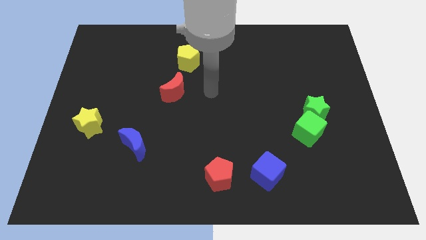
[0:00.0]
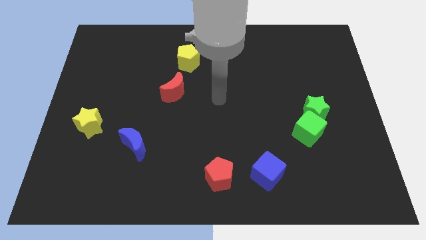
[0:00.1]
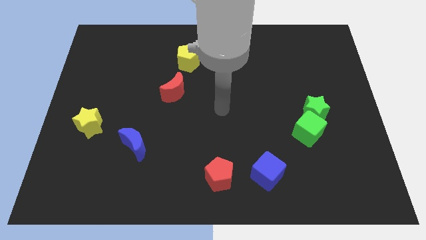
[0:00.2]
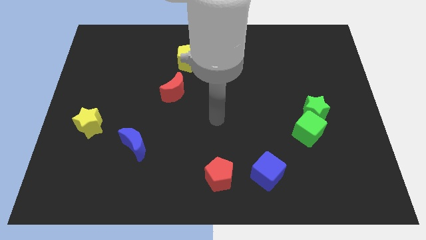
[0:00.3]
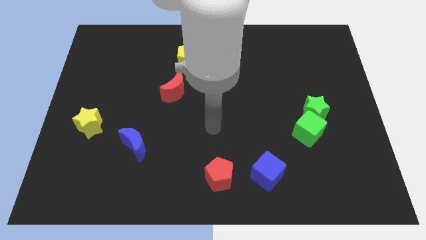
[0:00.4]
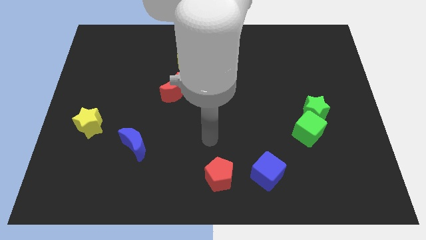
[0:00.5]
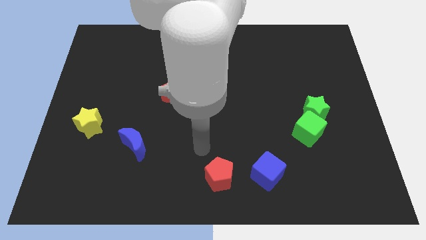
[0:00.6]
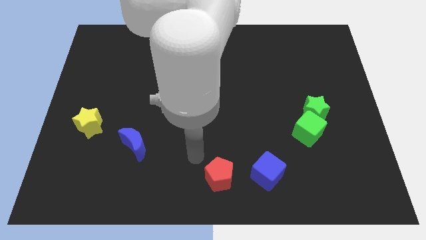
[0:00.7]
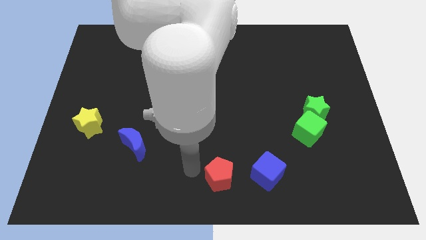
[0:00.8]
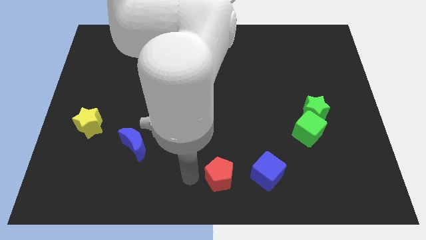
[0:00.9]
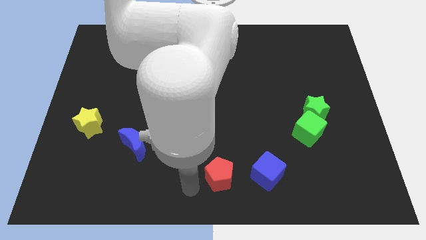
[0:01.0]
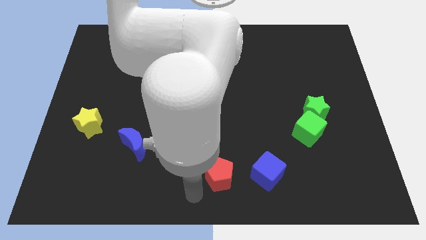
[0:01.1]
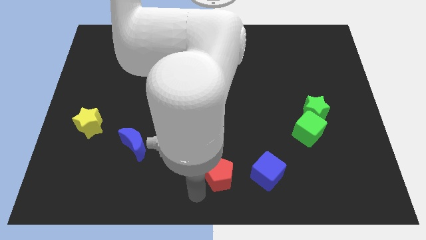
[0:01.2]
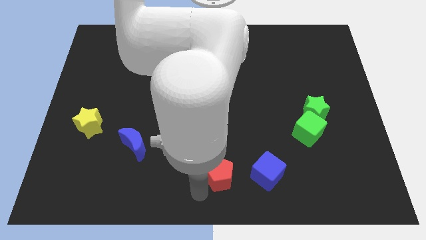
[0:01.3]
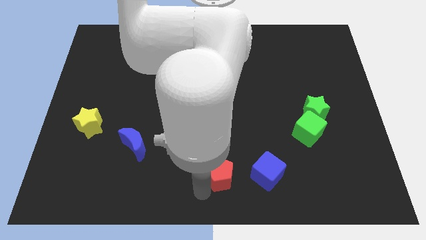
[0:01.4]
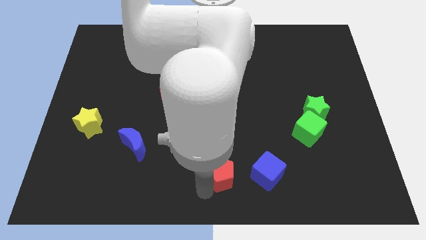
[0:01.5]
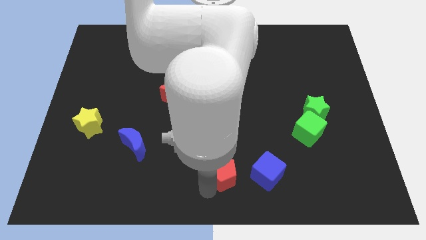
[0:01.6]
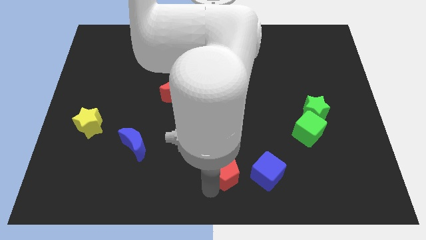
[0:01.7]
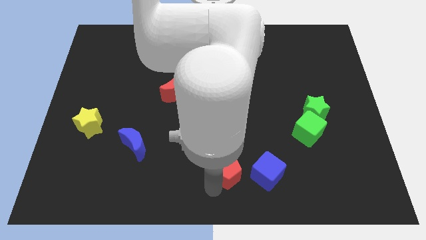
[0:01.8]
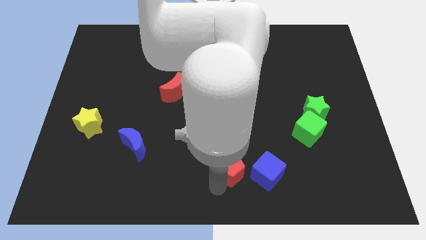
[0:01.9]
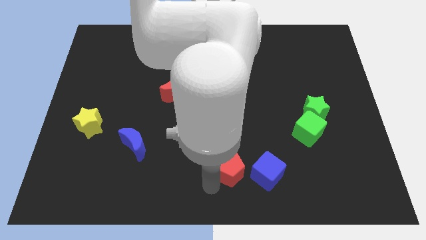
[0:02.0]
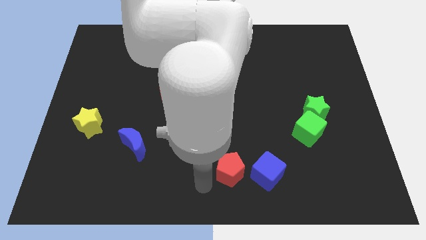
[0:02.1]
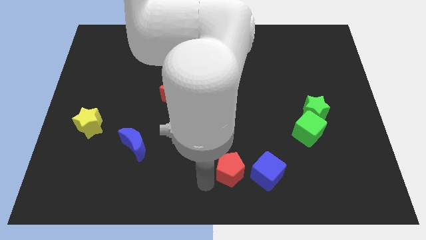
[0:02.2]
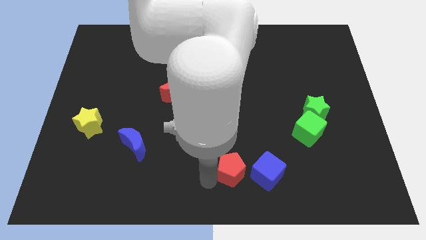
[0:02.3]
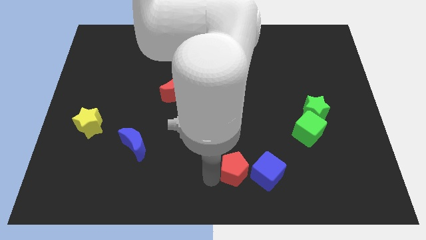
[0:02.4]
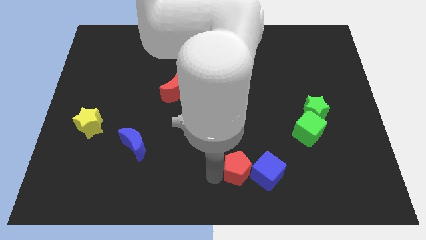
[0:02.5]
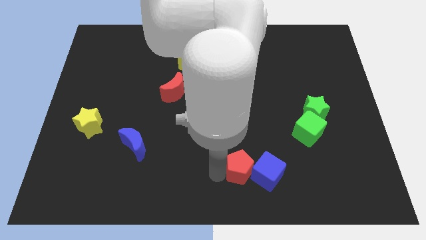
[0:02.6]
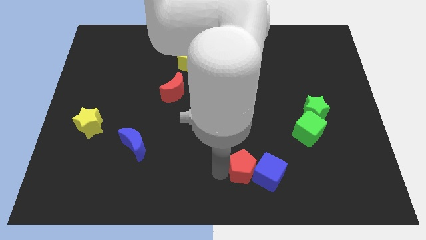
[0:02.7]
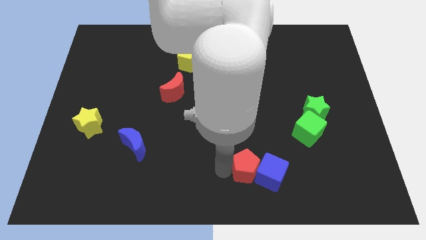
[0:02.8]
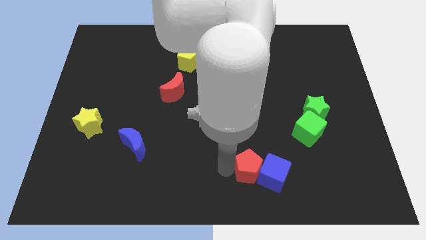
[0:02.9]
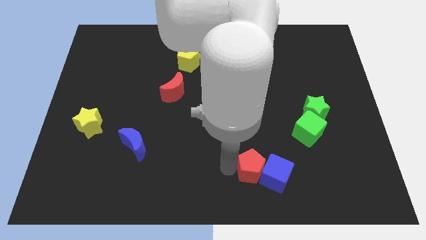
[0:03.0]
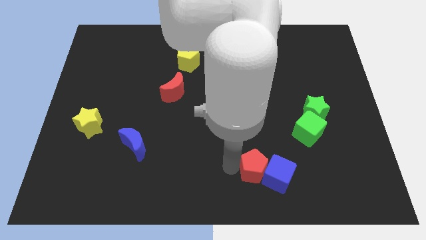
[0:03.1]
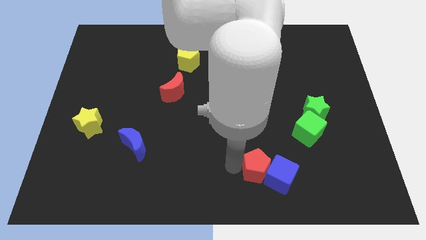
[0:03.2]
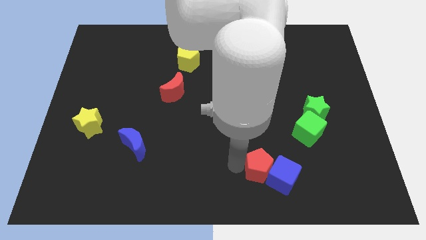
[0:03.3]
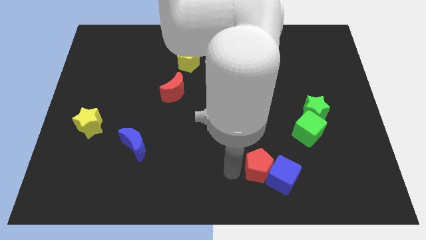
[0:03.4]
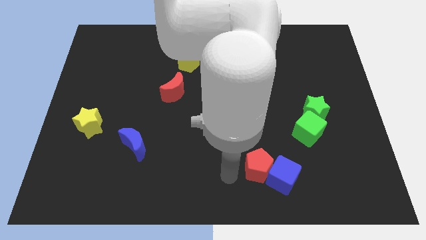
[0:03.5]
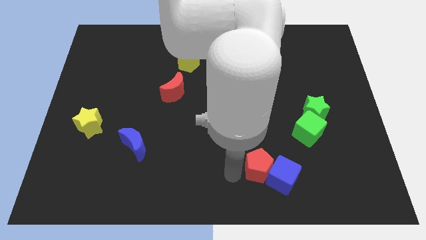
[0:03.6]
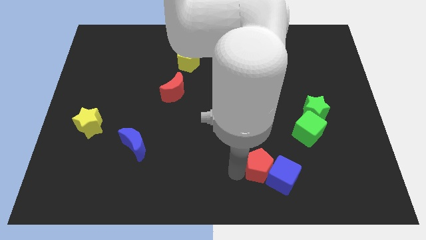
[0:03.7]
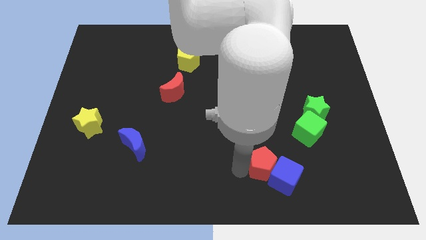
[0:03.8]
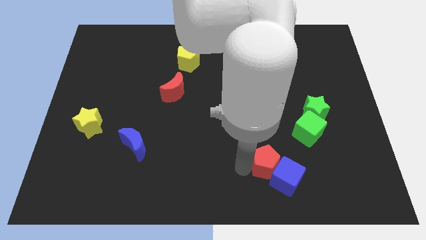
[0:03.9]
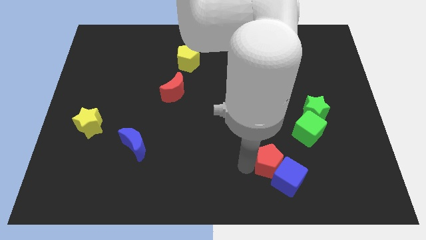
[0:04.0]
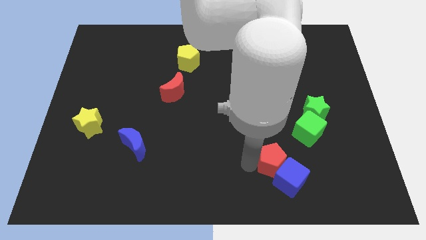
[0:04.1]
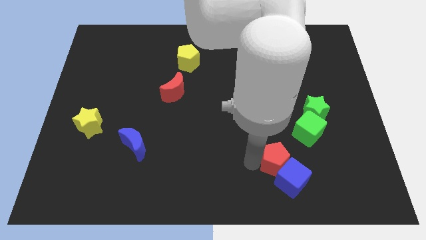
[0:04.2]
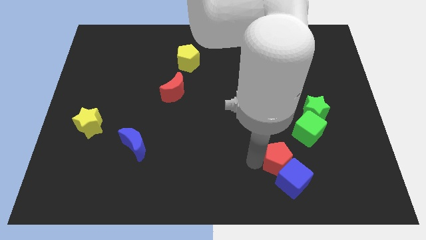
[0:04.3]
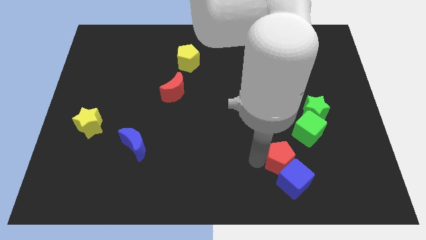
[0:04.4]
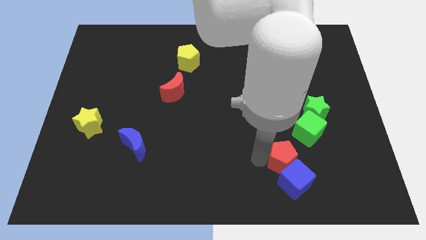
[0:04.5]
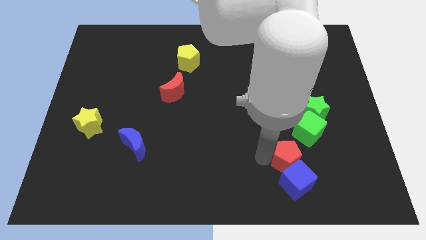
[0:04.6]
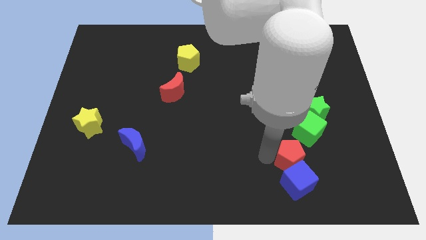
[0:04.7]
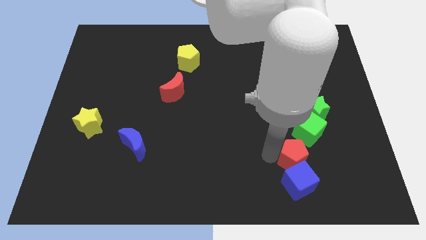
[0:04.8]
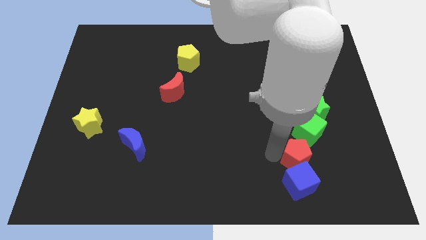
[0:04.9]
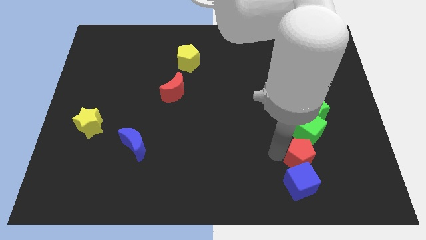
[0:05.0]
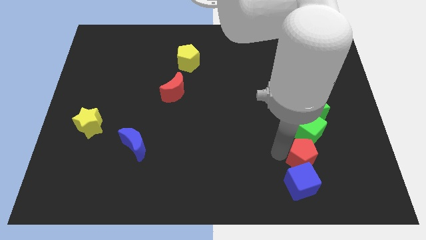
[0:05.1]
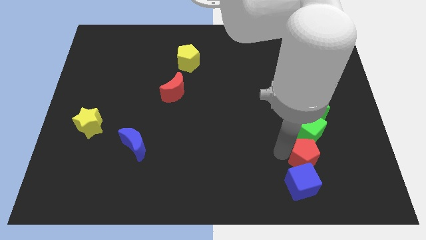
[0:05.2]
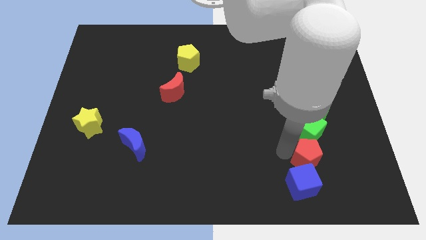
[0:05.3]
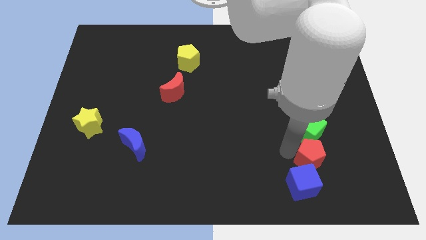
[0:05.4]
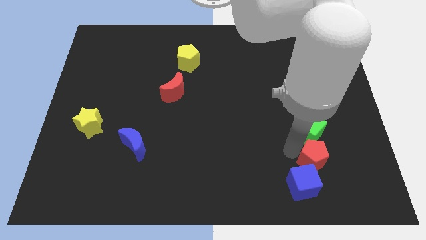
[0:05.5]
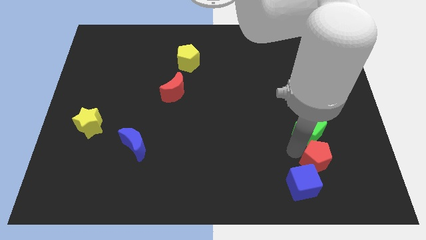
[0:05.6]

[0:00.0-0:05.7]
put the red pentagon to the bottom right of the green cube

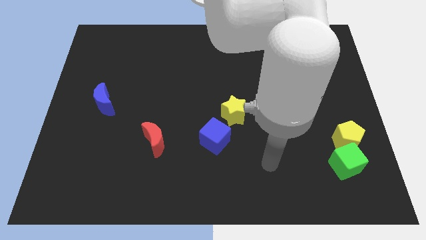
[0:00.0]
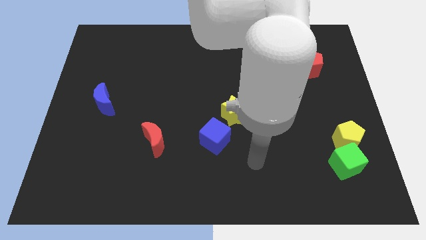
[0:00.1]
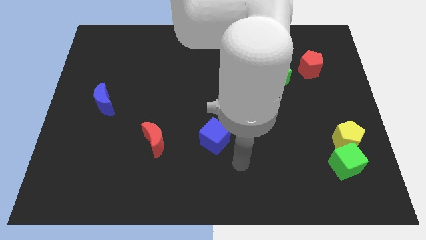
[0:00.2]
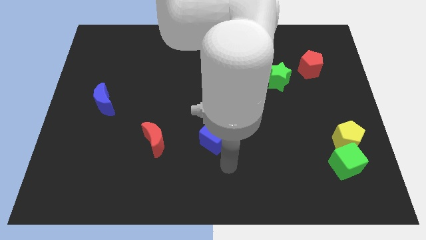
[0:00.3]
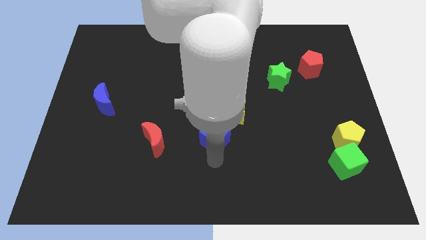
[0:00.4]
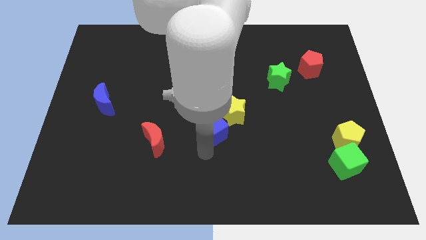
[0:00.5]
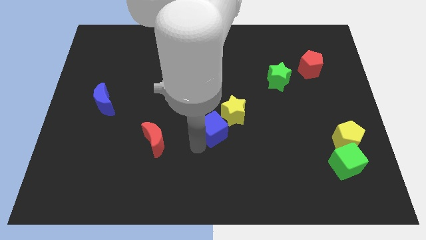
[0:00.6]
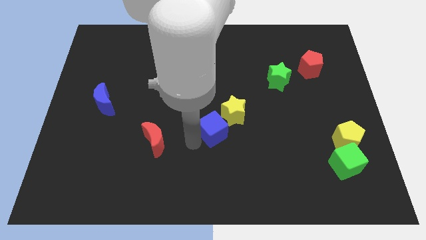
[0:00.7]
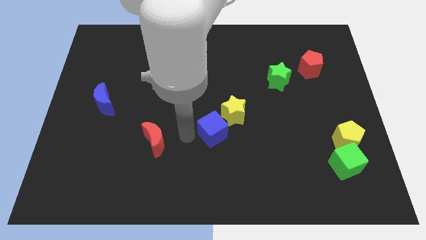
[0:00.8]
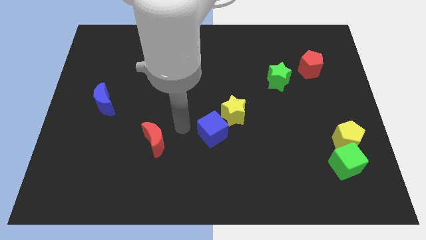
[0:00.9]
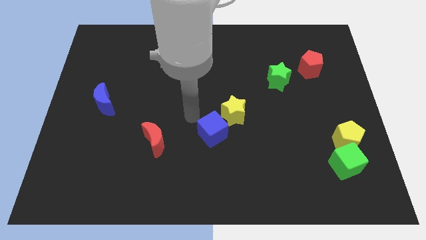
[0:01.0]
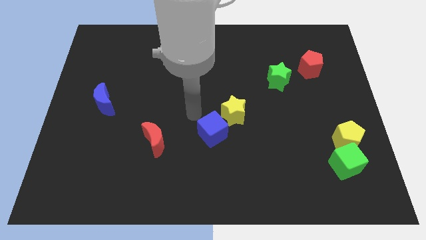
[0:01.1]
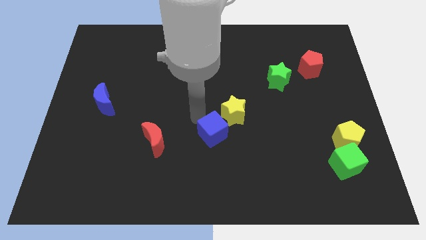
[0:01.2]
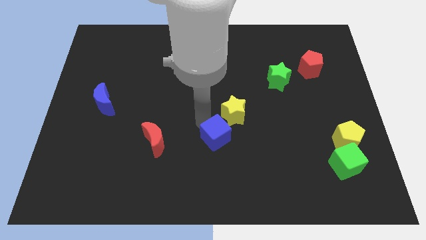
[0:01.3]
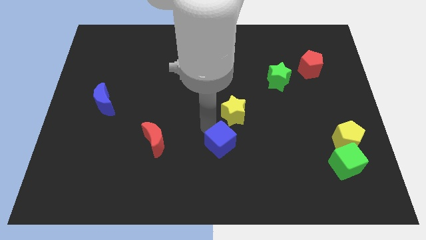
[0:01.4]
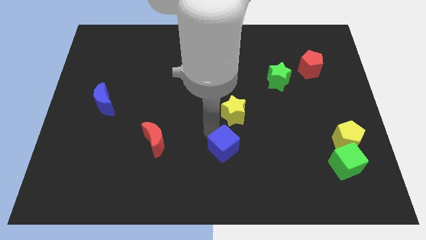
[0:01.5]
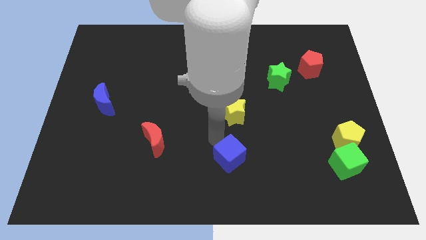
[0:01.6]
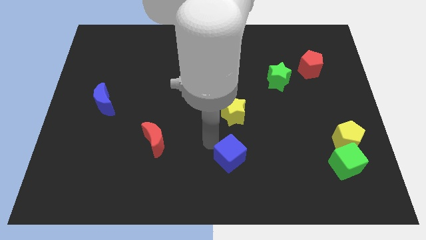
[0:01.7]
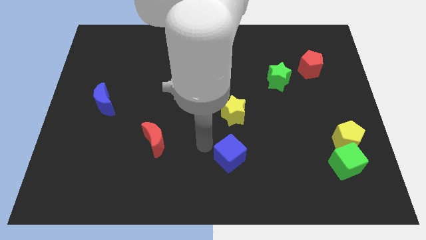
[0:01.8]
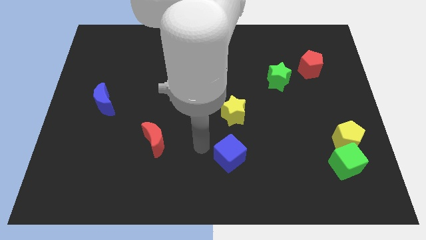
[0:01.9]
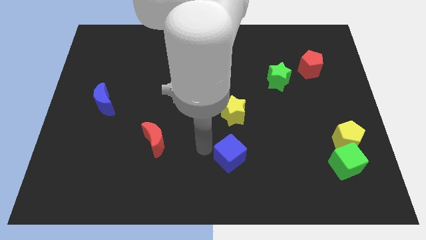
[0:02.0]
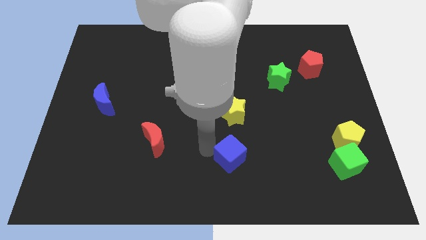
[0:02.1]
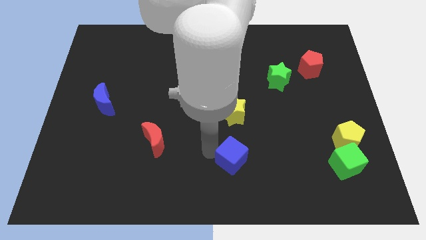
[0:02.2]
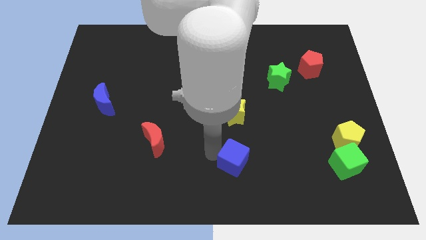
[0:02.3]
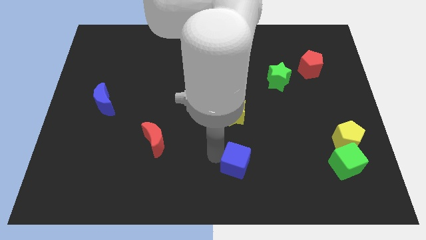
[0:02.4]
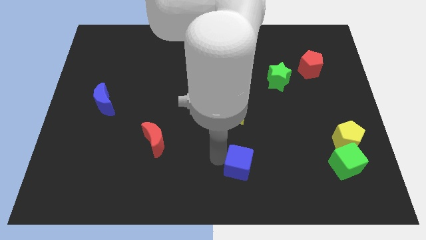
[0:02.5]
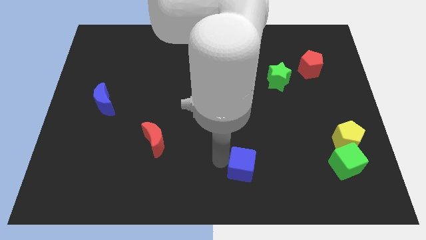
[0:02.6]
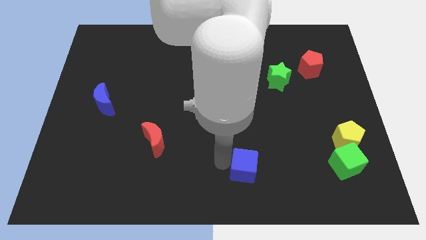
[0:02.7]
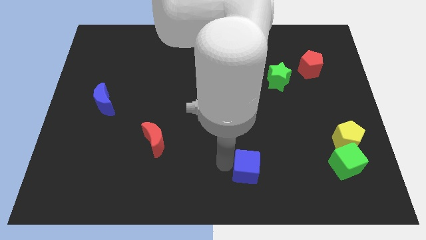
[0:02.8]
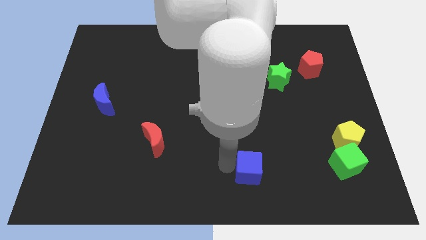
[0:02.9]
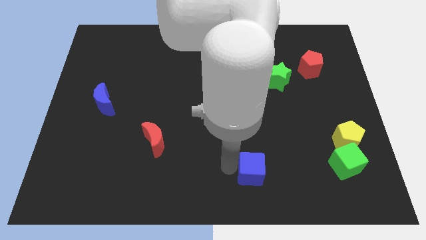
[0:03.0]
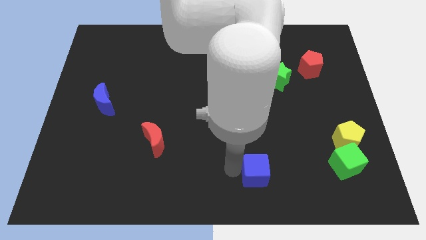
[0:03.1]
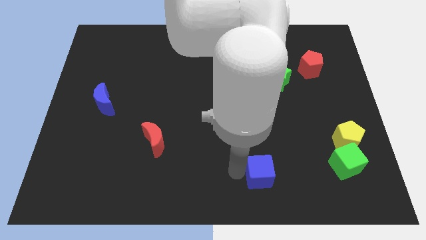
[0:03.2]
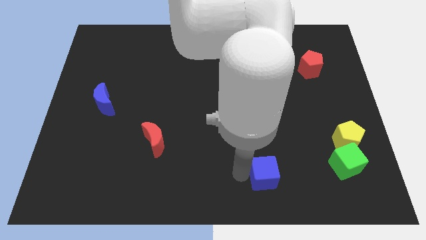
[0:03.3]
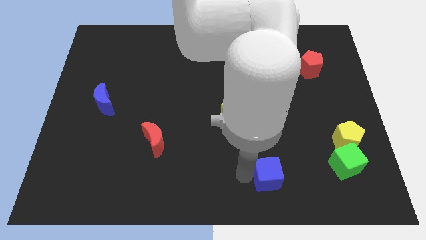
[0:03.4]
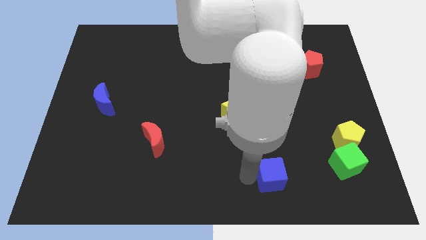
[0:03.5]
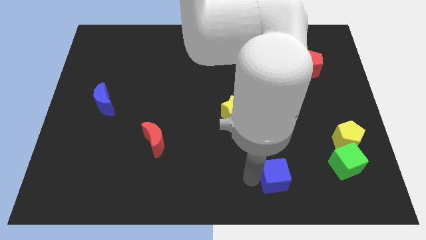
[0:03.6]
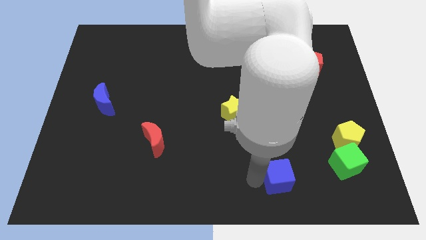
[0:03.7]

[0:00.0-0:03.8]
move the blue cube to the left of the green cube
